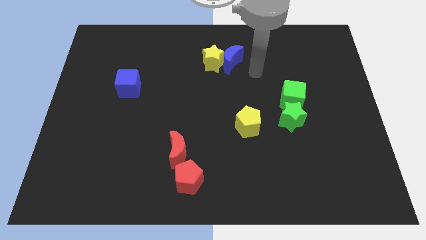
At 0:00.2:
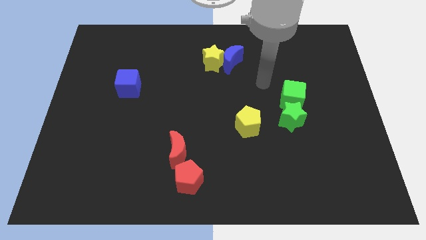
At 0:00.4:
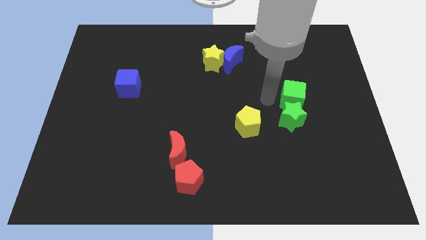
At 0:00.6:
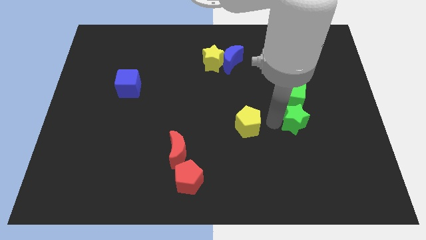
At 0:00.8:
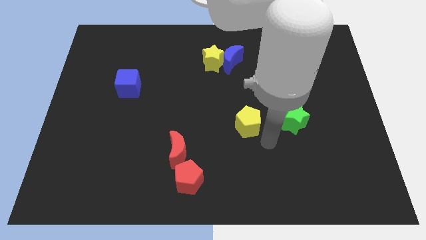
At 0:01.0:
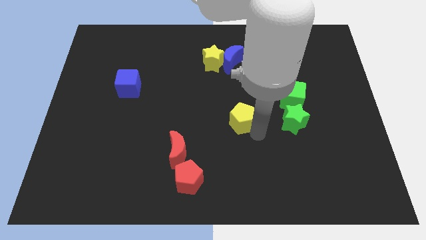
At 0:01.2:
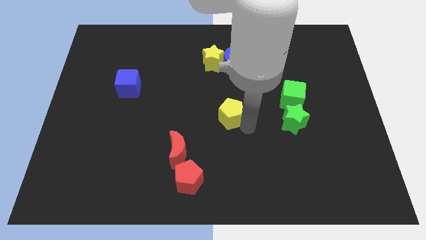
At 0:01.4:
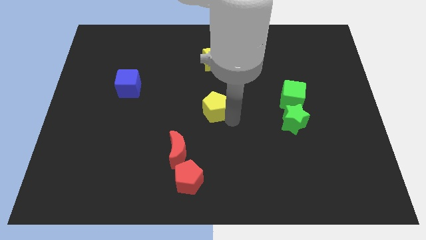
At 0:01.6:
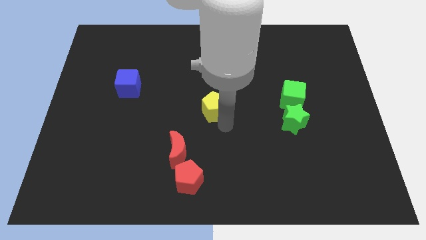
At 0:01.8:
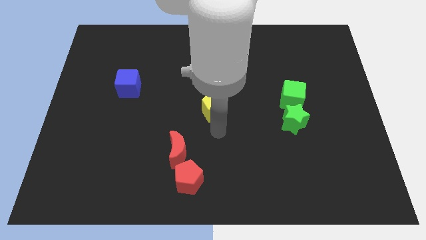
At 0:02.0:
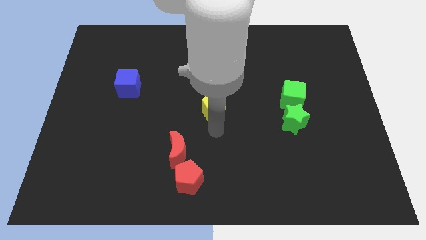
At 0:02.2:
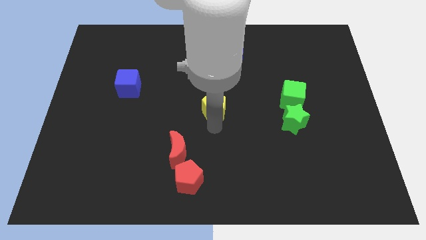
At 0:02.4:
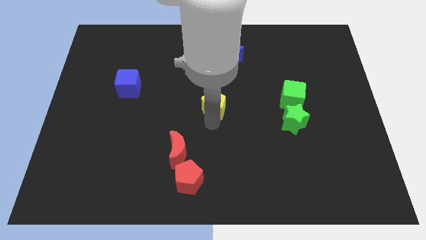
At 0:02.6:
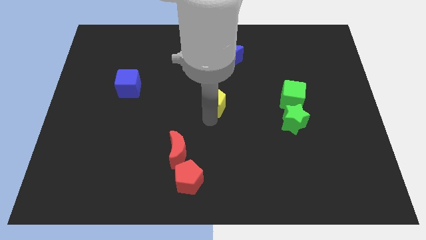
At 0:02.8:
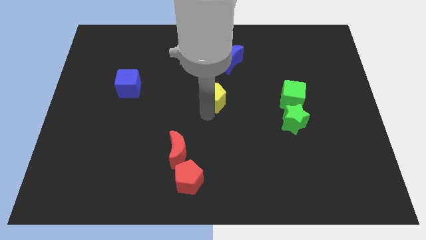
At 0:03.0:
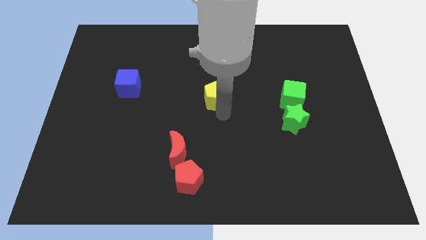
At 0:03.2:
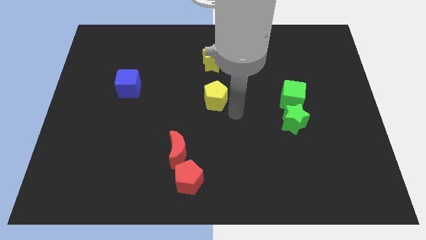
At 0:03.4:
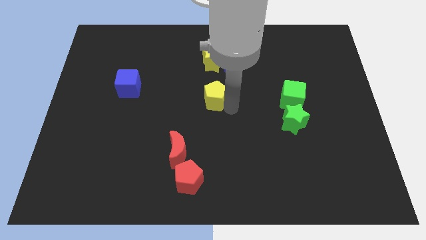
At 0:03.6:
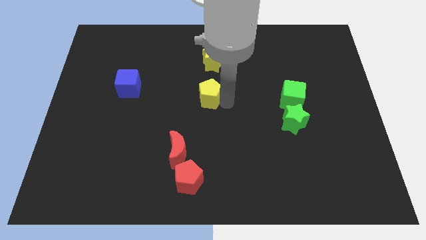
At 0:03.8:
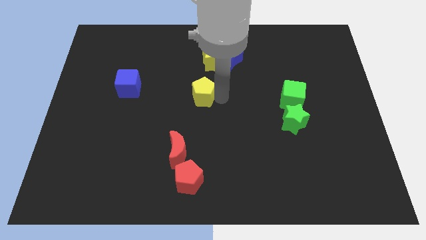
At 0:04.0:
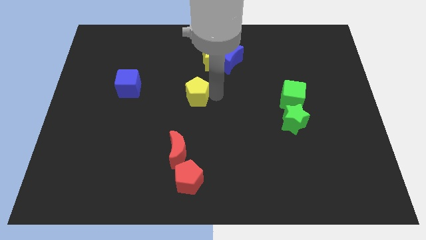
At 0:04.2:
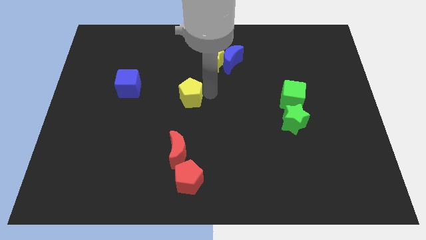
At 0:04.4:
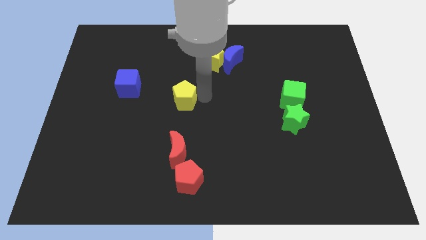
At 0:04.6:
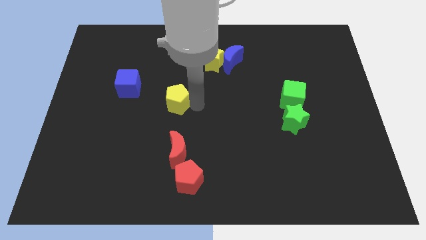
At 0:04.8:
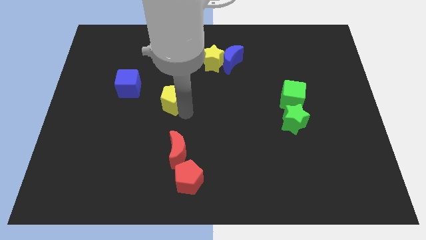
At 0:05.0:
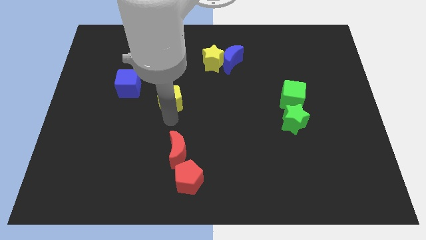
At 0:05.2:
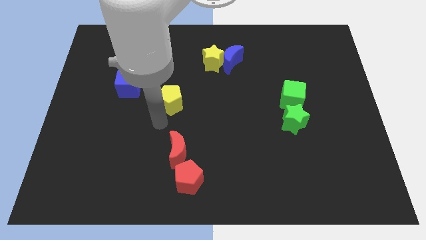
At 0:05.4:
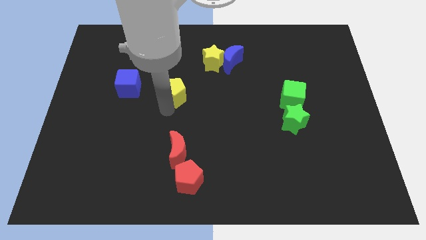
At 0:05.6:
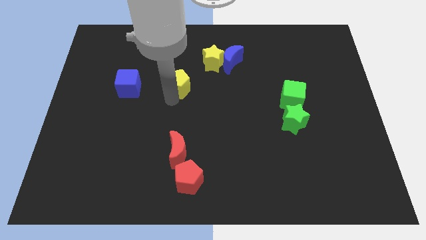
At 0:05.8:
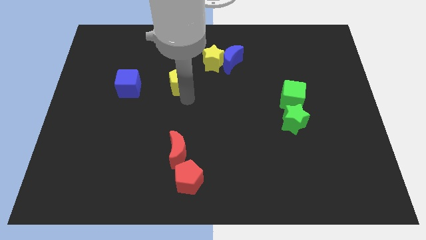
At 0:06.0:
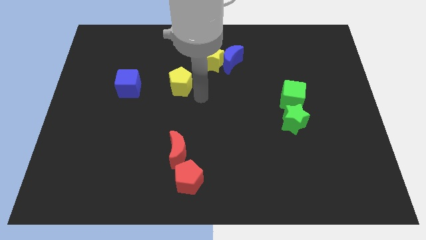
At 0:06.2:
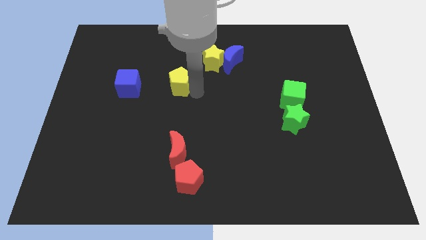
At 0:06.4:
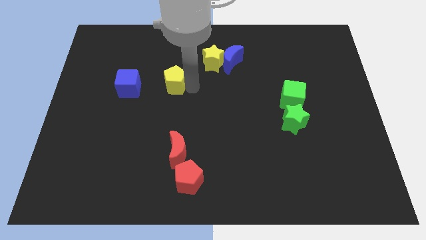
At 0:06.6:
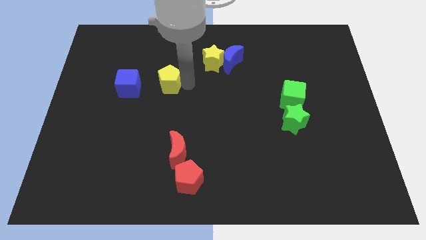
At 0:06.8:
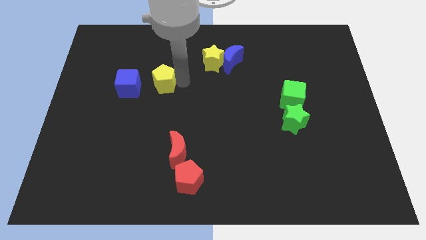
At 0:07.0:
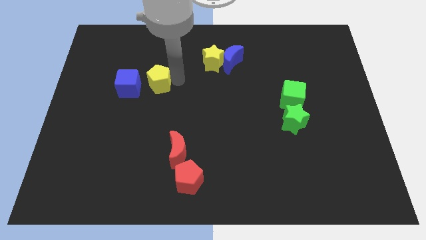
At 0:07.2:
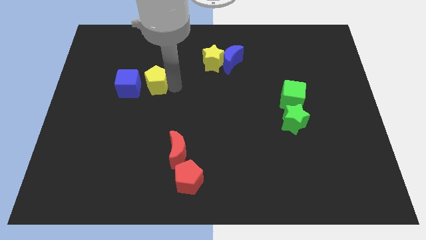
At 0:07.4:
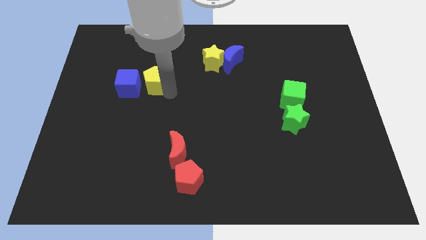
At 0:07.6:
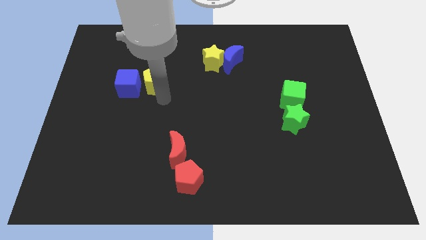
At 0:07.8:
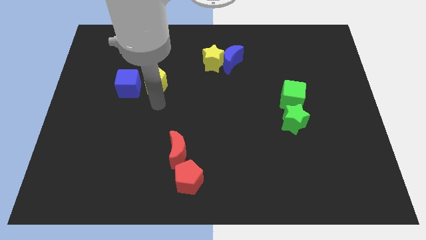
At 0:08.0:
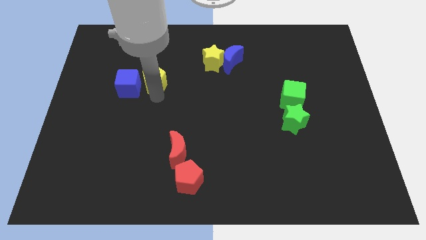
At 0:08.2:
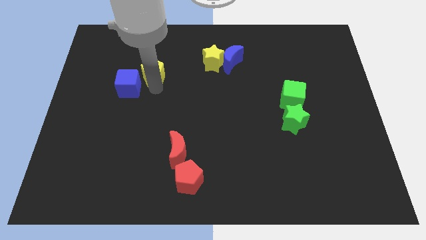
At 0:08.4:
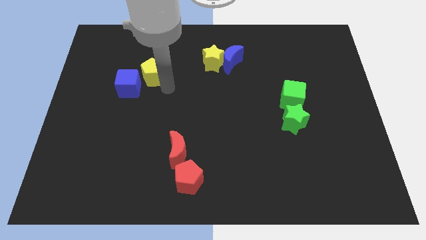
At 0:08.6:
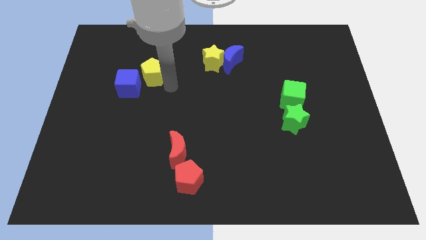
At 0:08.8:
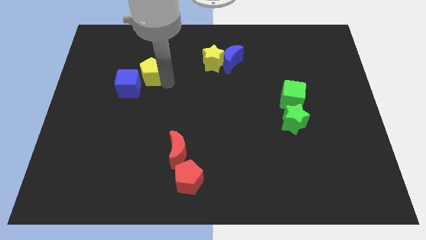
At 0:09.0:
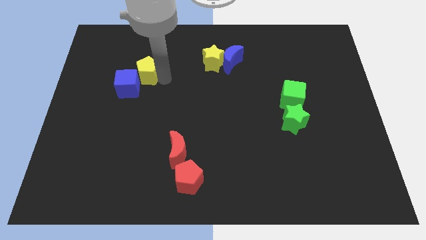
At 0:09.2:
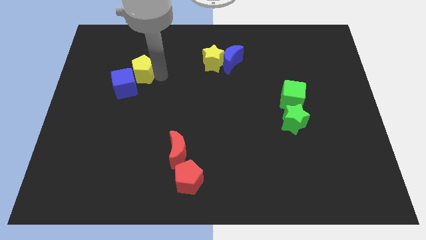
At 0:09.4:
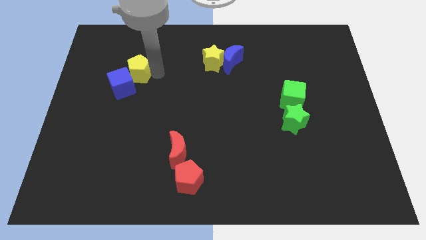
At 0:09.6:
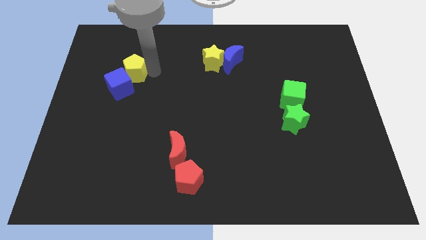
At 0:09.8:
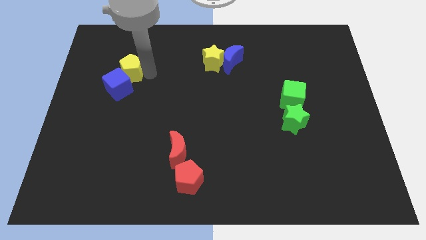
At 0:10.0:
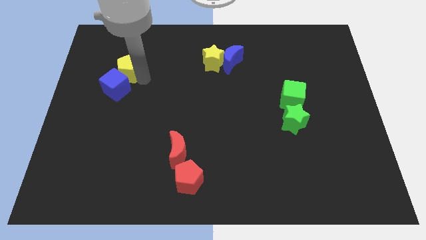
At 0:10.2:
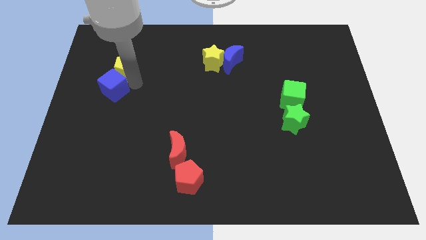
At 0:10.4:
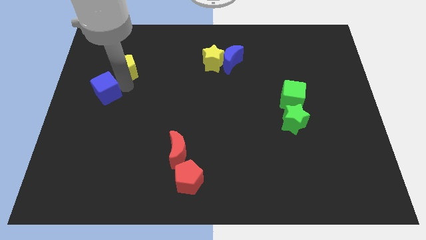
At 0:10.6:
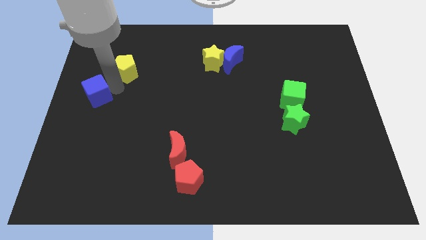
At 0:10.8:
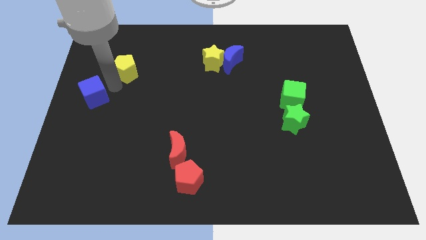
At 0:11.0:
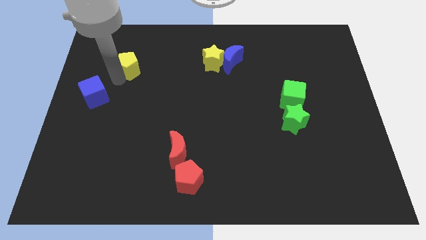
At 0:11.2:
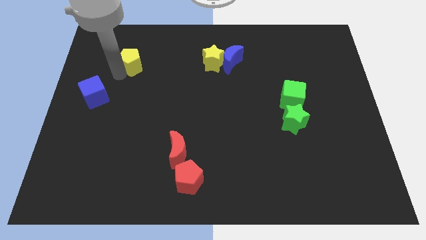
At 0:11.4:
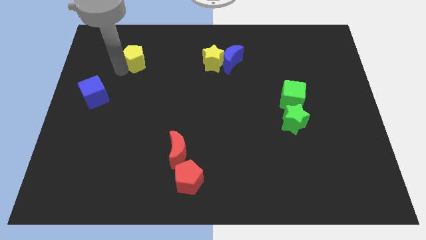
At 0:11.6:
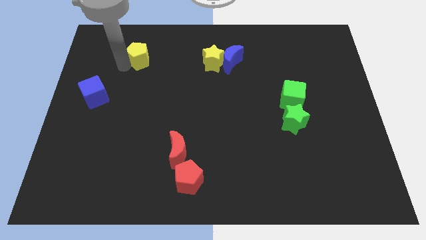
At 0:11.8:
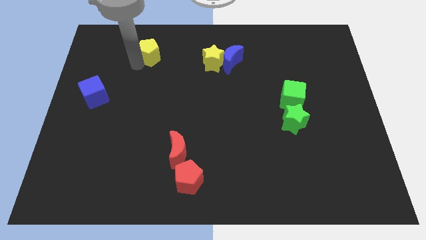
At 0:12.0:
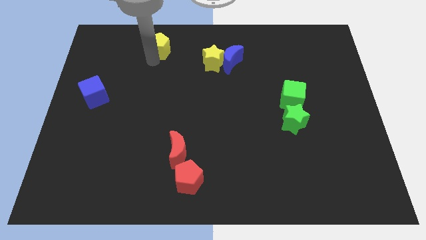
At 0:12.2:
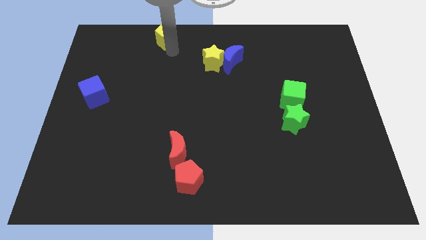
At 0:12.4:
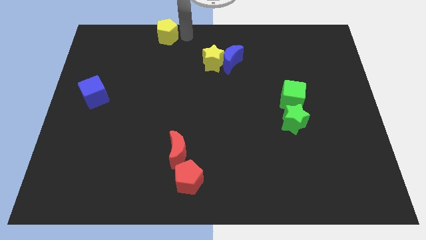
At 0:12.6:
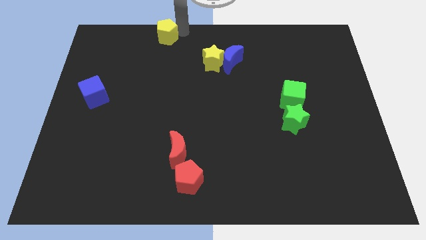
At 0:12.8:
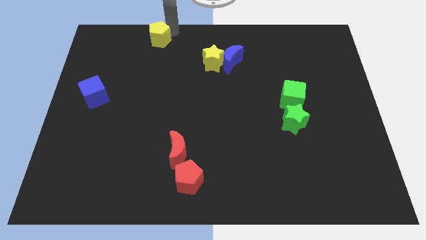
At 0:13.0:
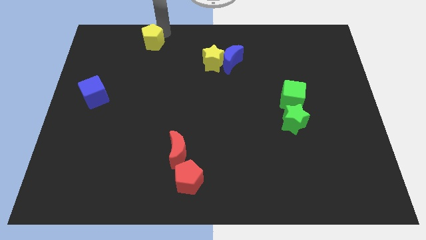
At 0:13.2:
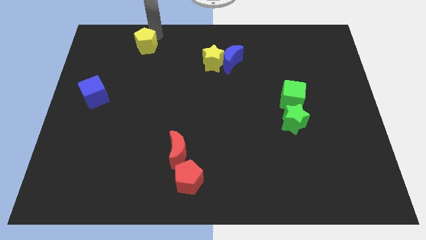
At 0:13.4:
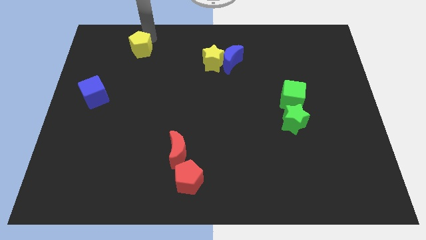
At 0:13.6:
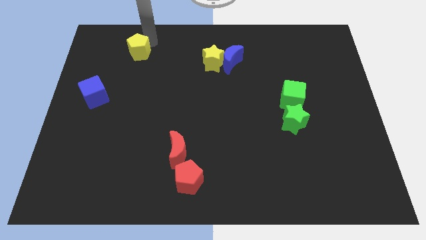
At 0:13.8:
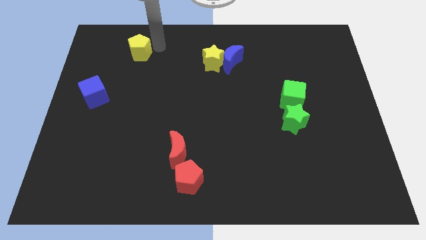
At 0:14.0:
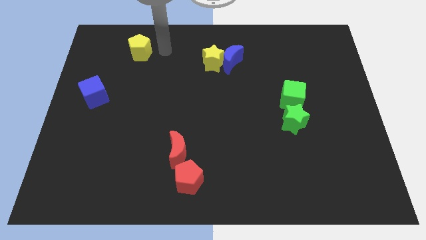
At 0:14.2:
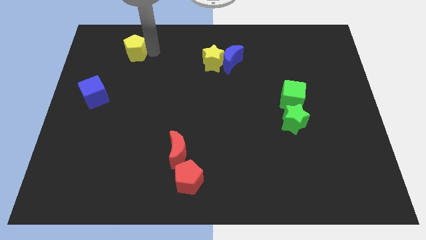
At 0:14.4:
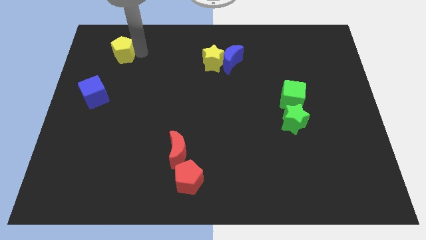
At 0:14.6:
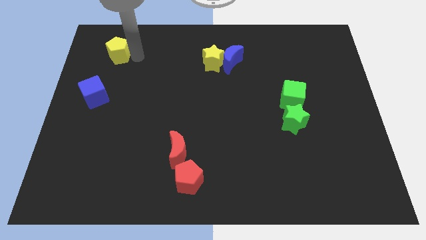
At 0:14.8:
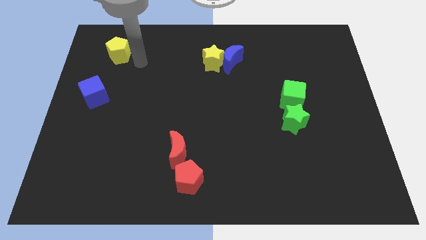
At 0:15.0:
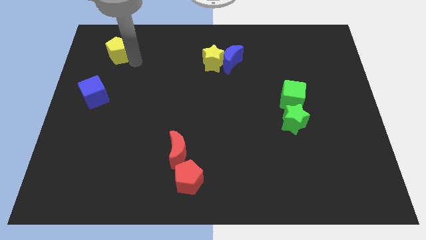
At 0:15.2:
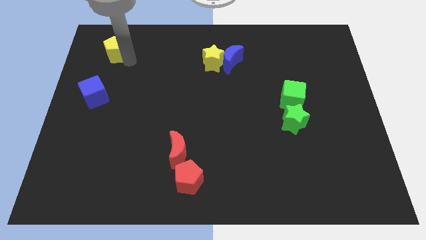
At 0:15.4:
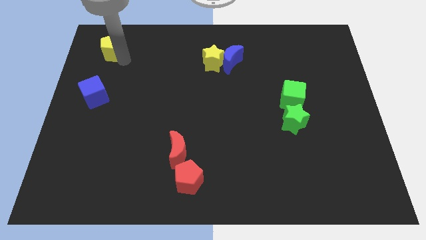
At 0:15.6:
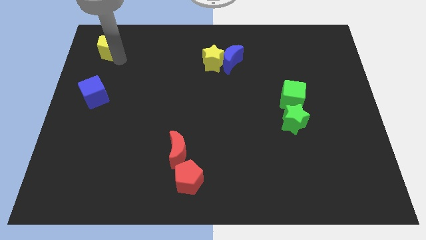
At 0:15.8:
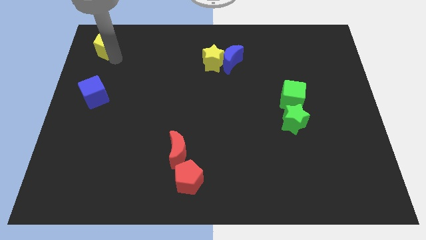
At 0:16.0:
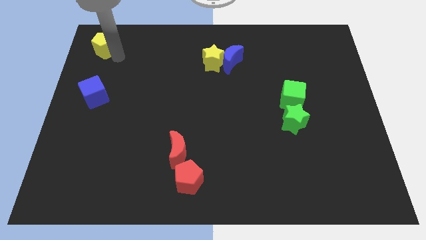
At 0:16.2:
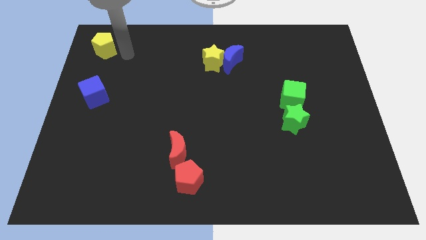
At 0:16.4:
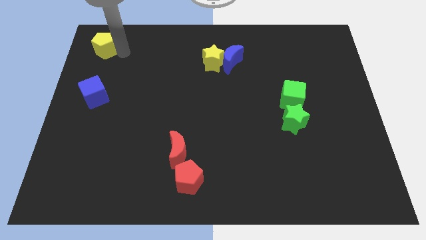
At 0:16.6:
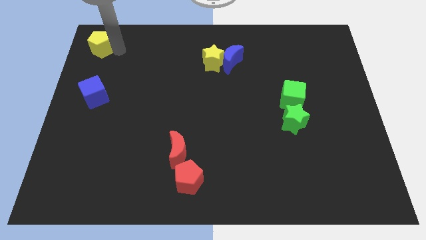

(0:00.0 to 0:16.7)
push the yellow pentagon to the upper left corner
